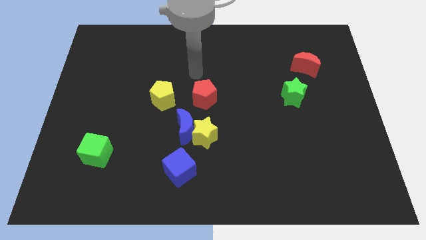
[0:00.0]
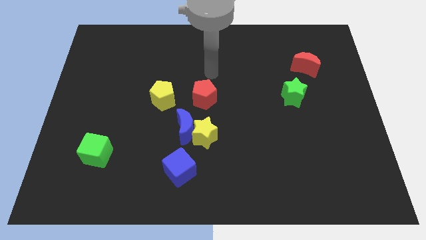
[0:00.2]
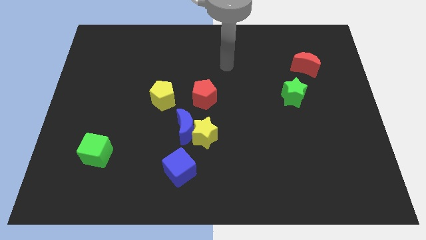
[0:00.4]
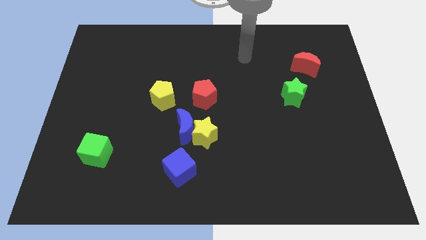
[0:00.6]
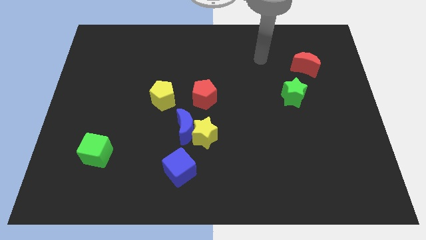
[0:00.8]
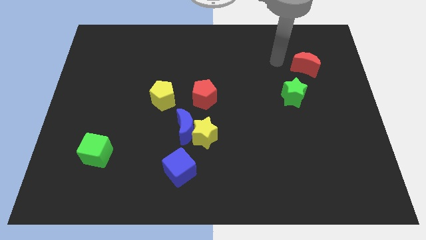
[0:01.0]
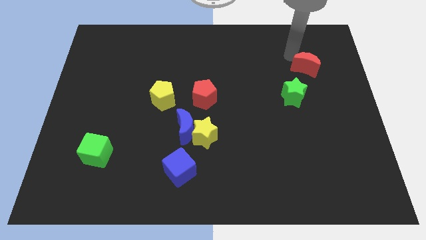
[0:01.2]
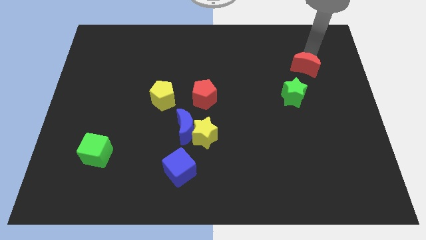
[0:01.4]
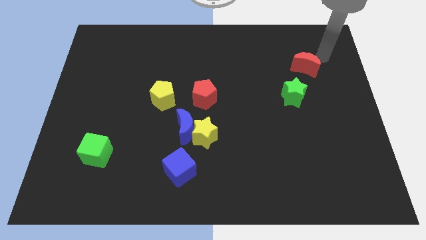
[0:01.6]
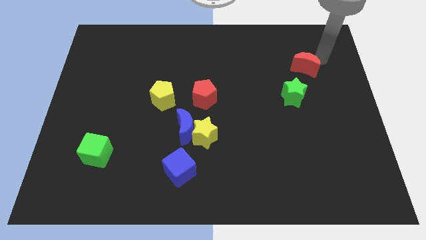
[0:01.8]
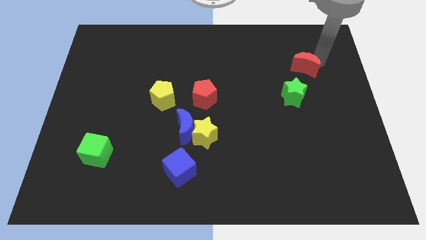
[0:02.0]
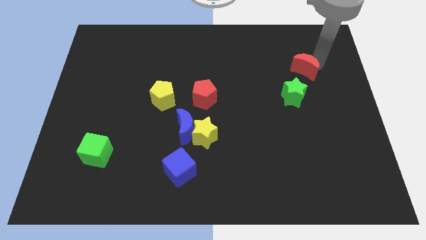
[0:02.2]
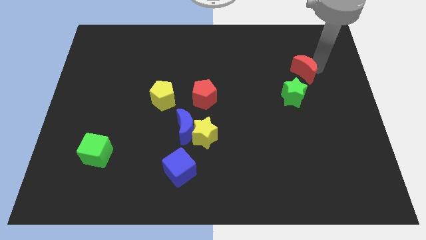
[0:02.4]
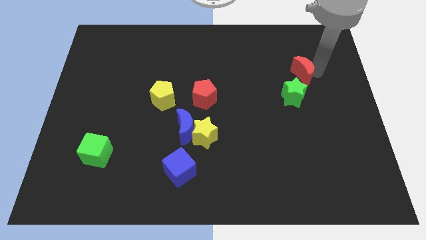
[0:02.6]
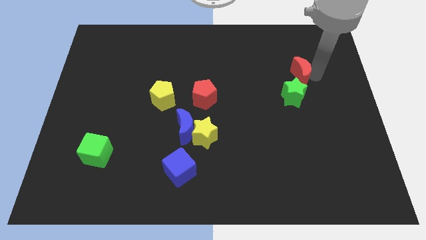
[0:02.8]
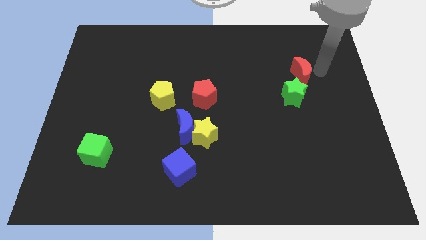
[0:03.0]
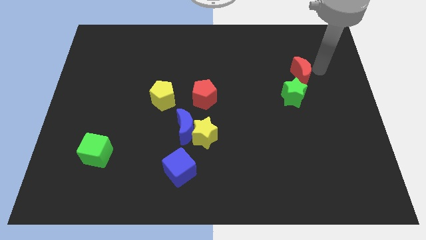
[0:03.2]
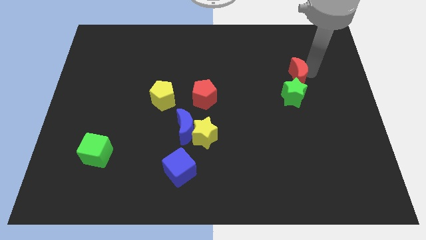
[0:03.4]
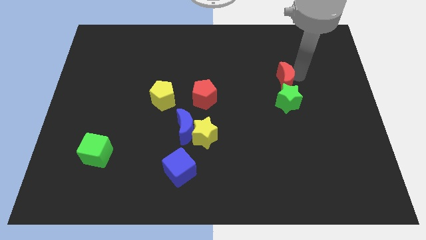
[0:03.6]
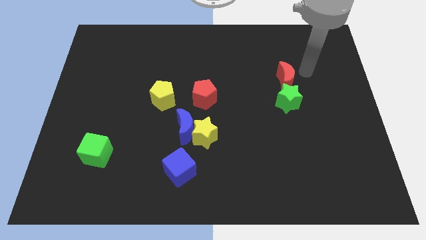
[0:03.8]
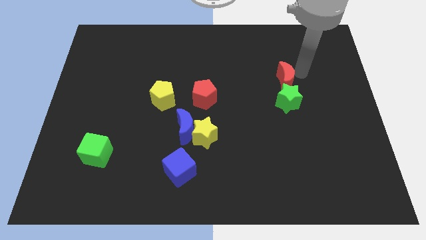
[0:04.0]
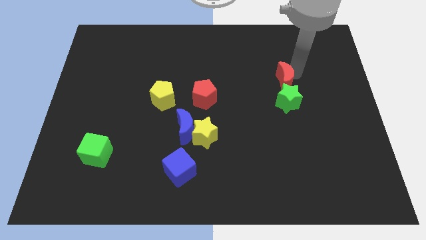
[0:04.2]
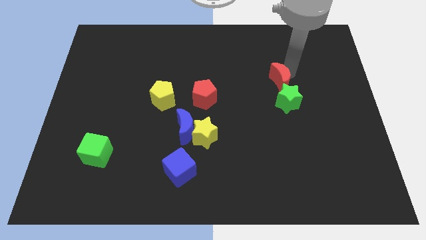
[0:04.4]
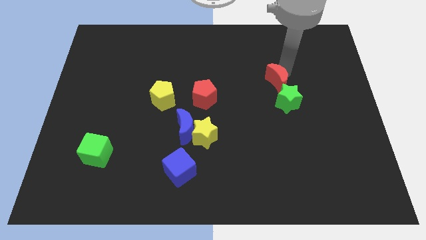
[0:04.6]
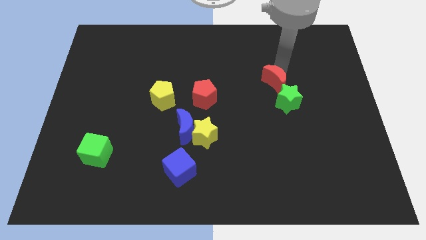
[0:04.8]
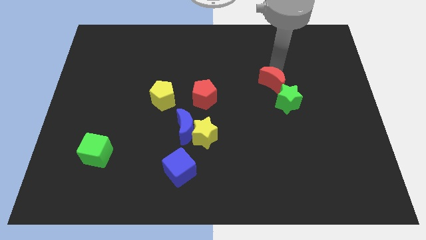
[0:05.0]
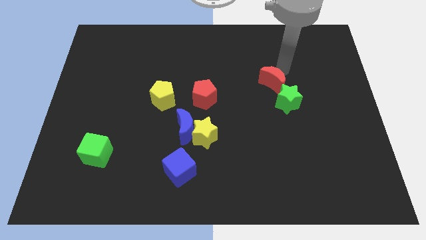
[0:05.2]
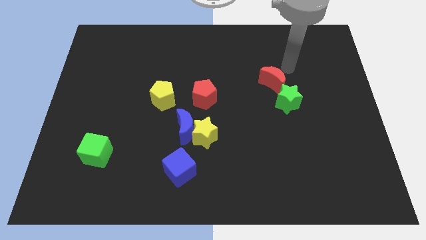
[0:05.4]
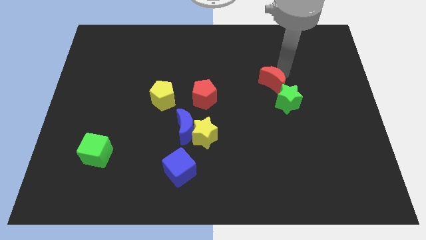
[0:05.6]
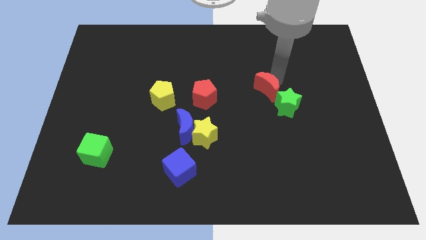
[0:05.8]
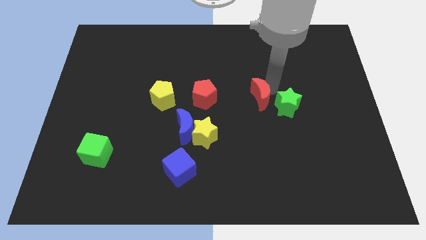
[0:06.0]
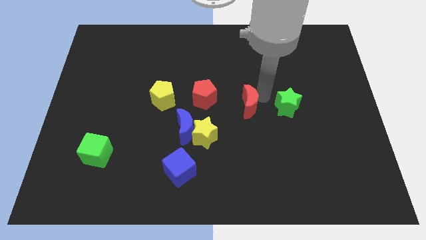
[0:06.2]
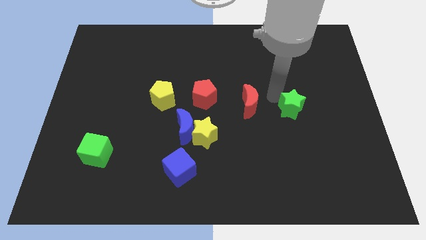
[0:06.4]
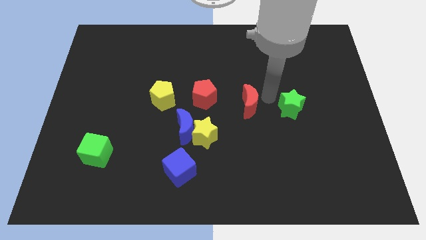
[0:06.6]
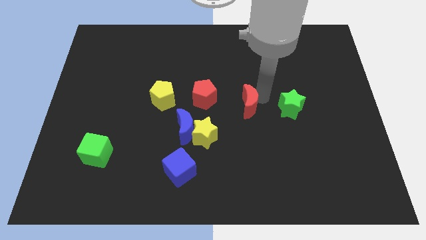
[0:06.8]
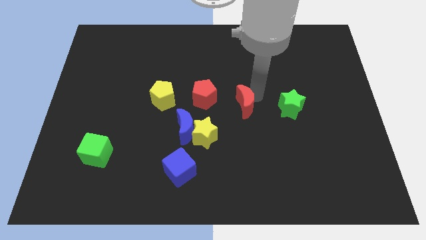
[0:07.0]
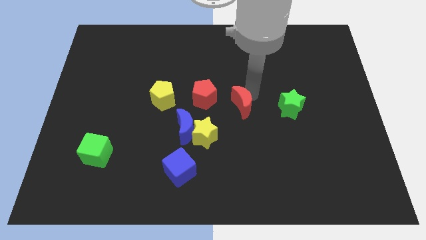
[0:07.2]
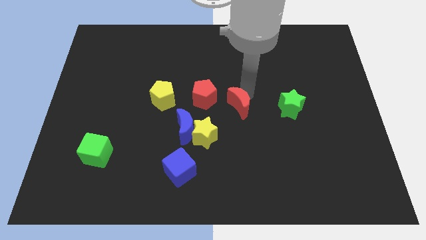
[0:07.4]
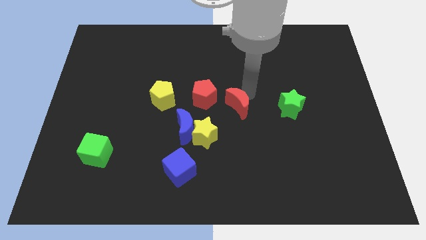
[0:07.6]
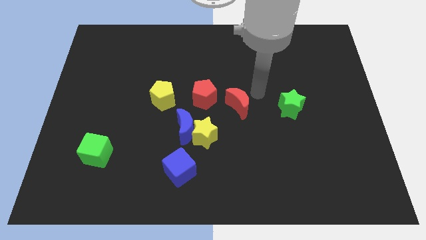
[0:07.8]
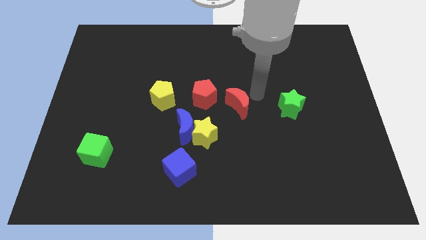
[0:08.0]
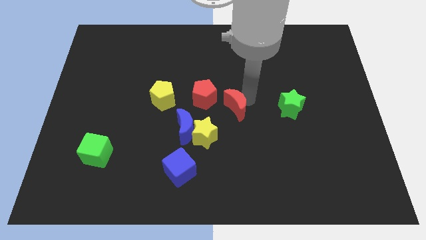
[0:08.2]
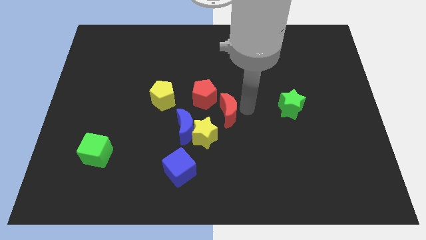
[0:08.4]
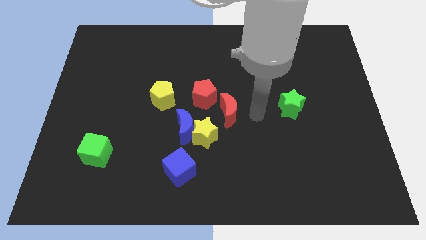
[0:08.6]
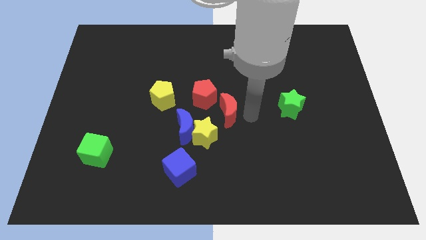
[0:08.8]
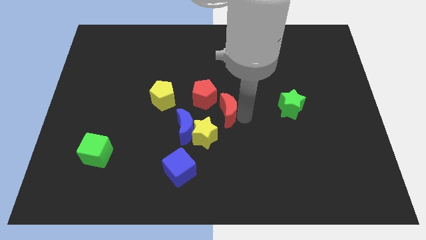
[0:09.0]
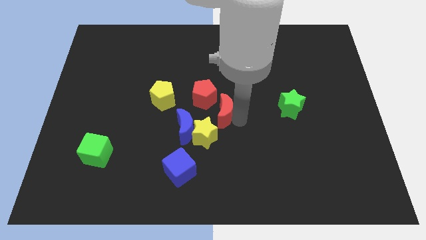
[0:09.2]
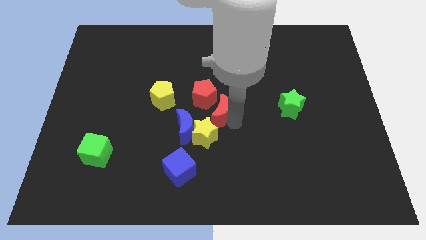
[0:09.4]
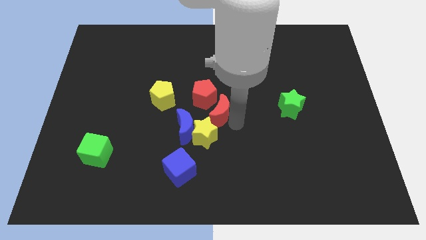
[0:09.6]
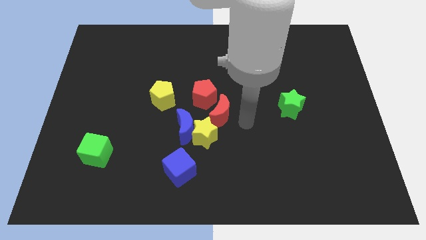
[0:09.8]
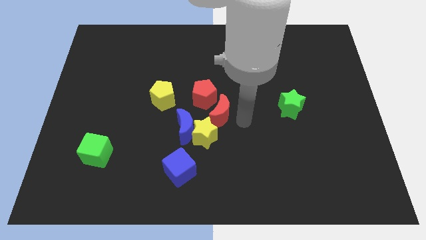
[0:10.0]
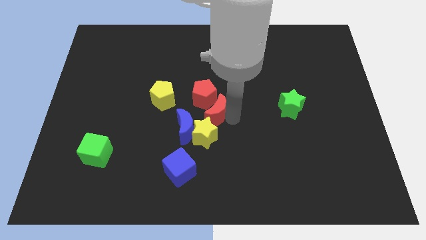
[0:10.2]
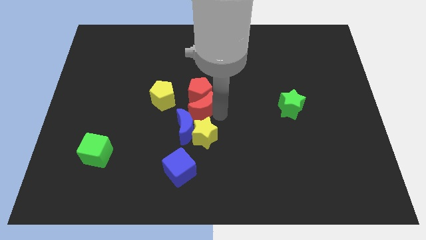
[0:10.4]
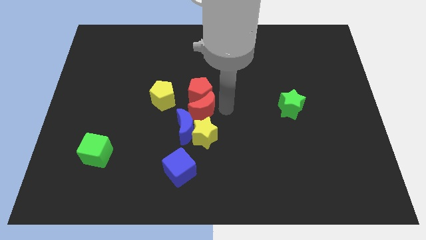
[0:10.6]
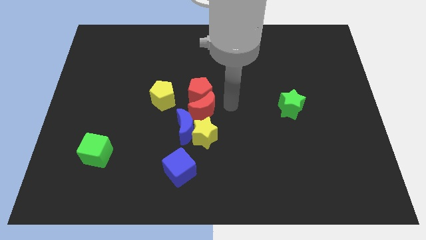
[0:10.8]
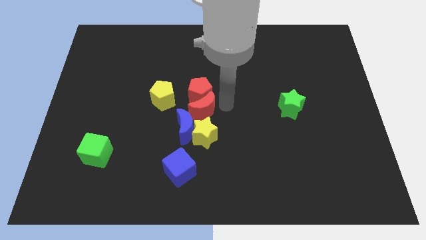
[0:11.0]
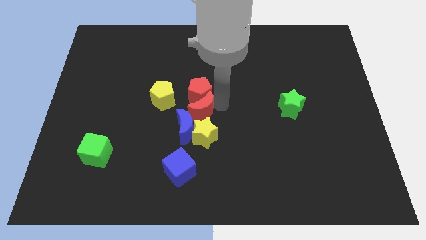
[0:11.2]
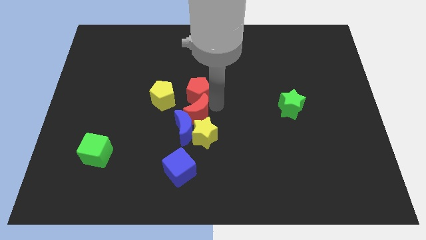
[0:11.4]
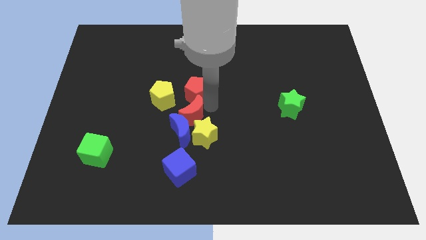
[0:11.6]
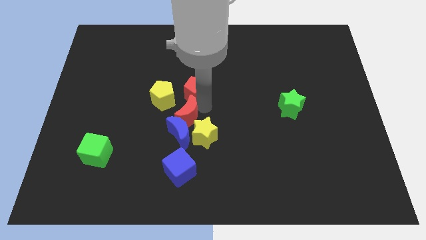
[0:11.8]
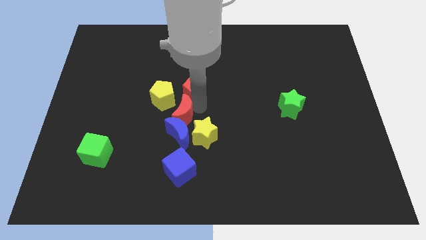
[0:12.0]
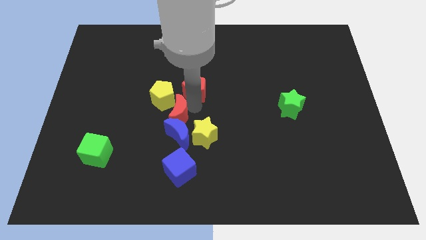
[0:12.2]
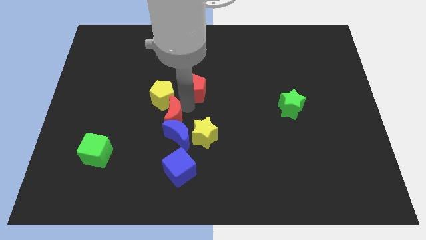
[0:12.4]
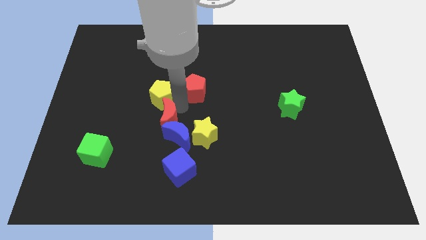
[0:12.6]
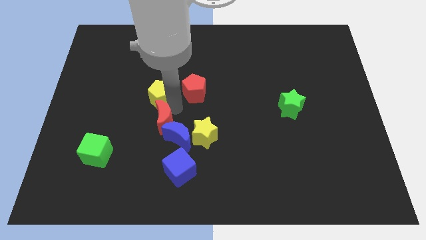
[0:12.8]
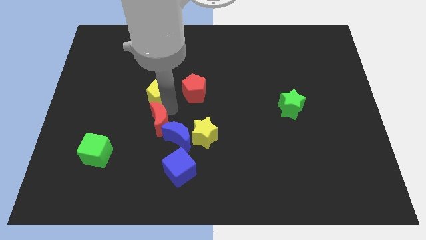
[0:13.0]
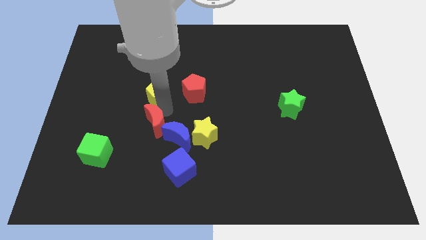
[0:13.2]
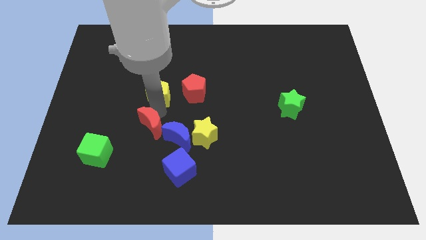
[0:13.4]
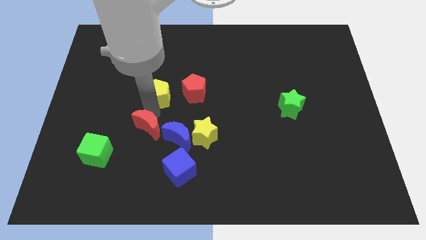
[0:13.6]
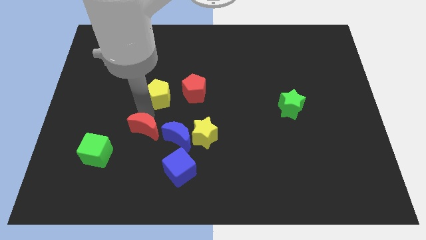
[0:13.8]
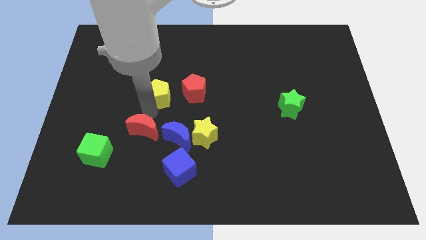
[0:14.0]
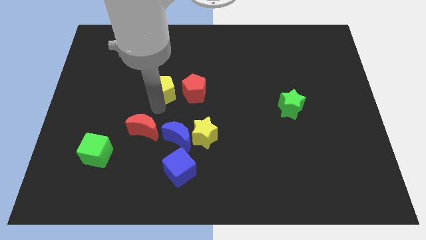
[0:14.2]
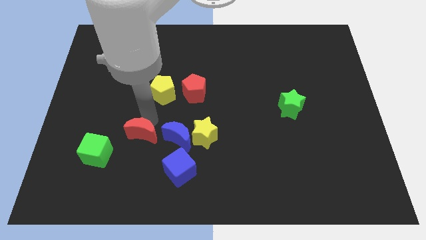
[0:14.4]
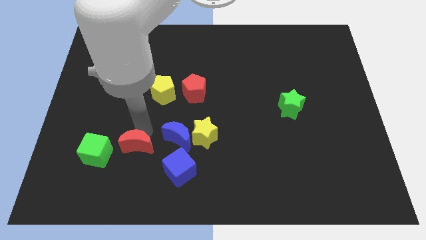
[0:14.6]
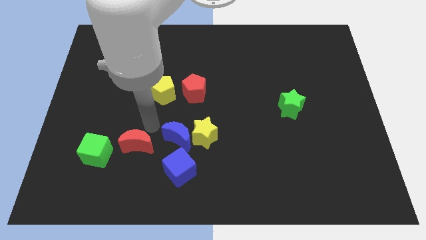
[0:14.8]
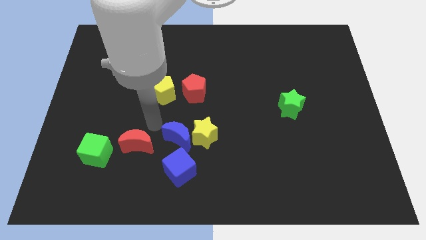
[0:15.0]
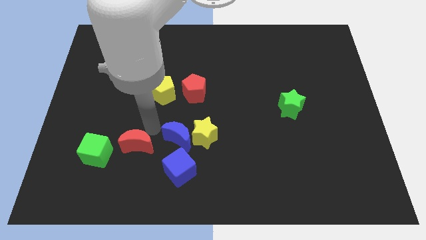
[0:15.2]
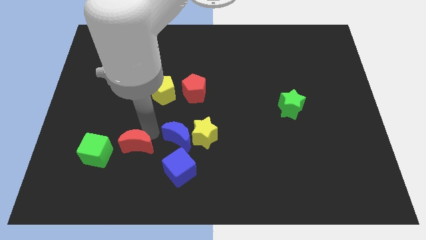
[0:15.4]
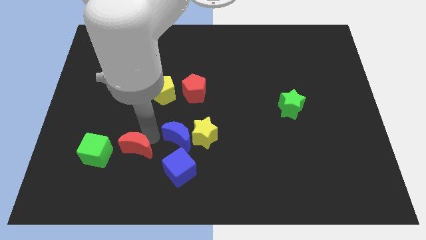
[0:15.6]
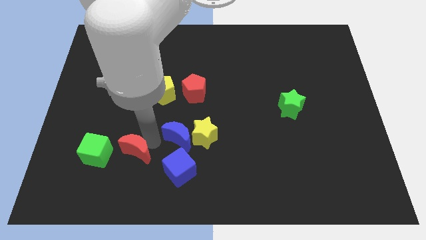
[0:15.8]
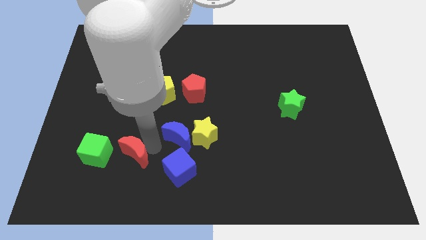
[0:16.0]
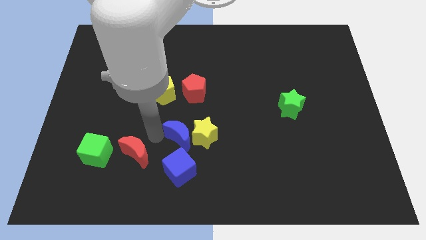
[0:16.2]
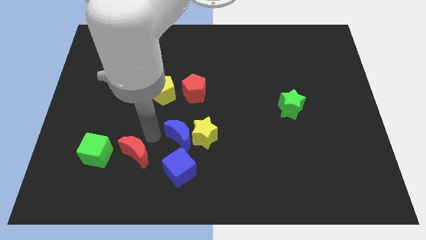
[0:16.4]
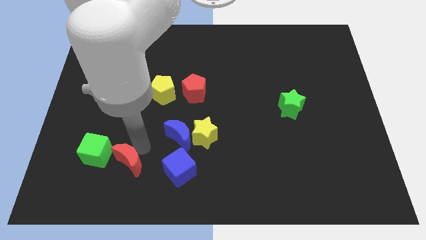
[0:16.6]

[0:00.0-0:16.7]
slide the red moon to the bottom right side of the green cube
